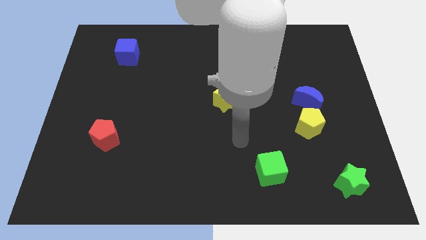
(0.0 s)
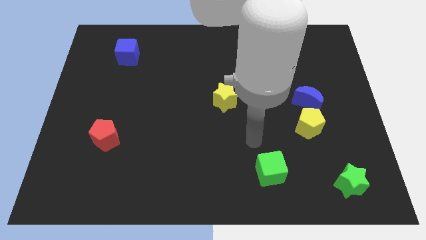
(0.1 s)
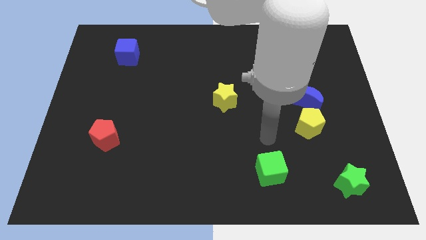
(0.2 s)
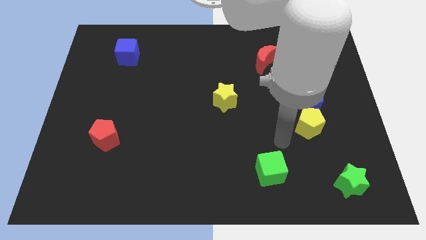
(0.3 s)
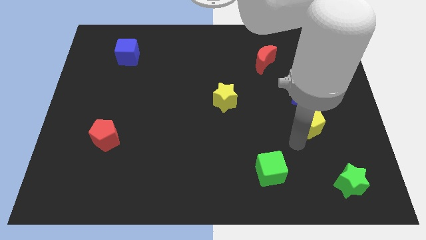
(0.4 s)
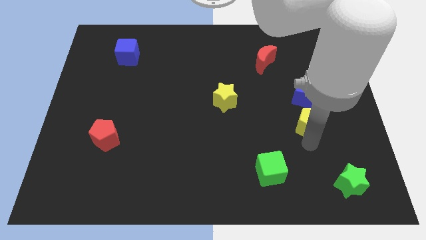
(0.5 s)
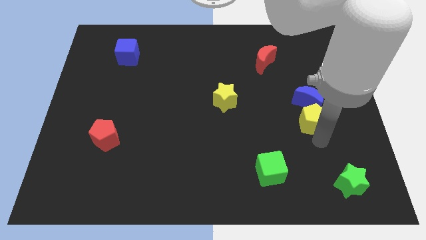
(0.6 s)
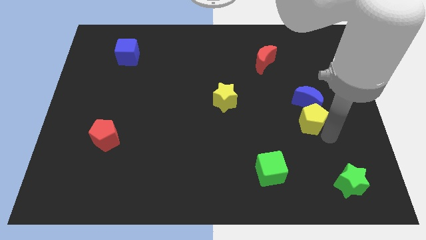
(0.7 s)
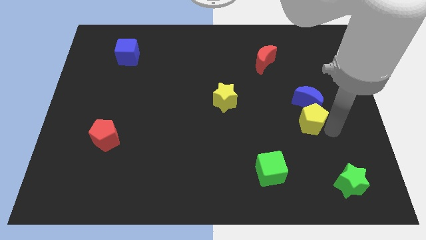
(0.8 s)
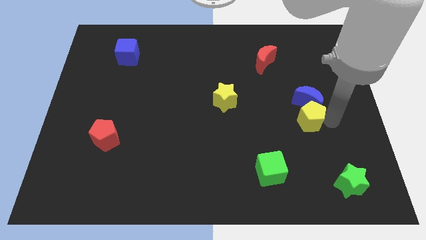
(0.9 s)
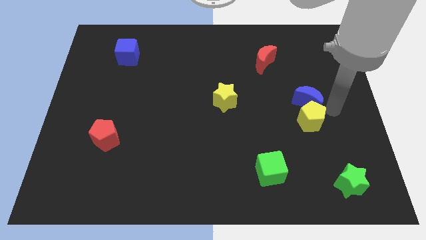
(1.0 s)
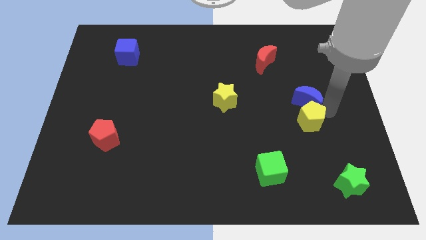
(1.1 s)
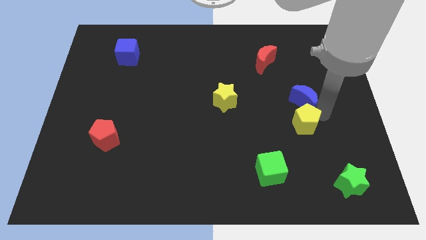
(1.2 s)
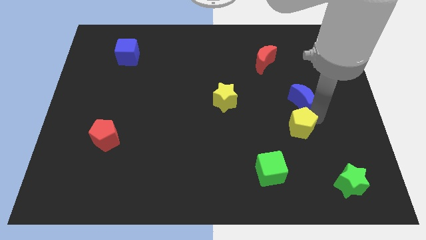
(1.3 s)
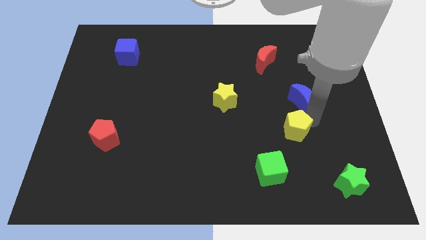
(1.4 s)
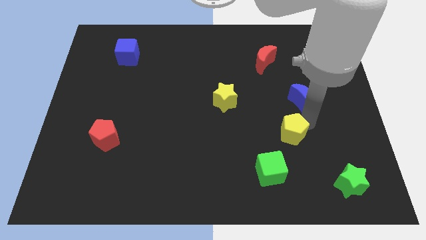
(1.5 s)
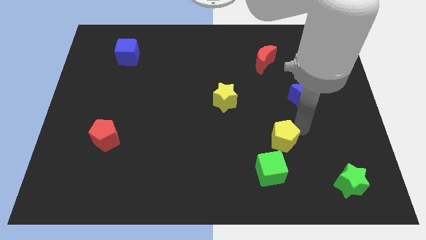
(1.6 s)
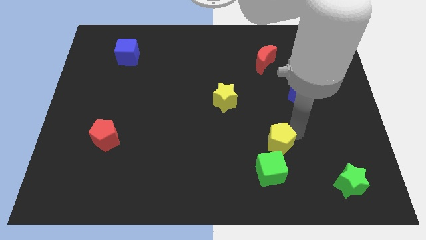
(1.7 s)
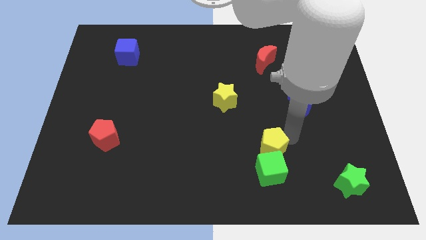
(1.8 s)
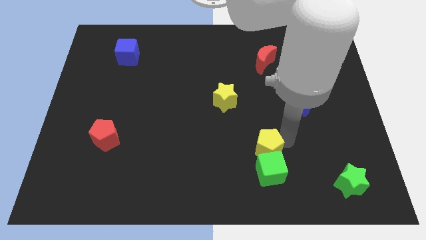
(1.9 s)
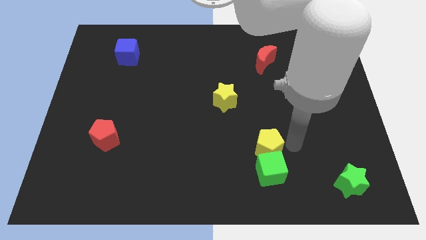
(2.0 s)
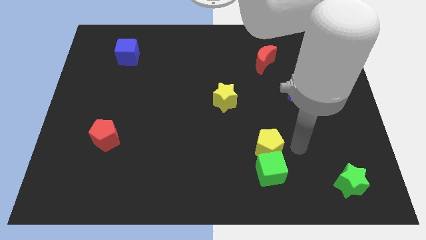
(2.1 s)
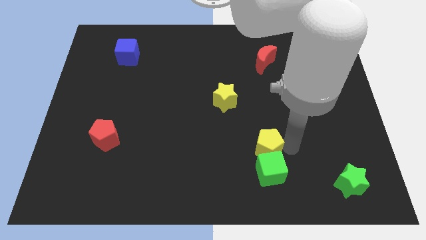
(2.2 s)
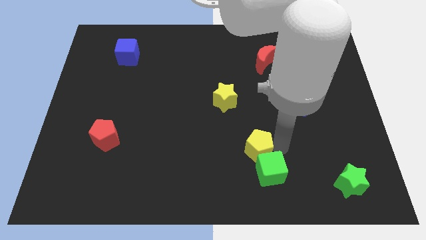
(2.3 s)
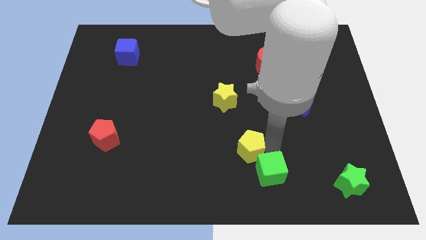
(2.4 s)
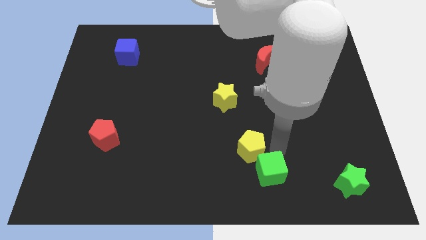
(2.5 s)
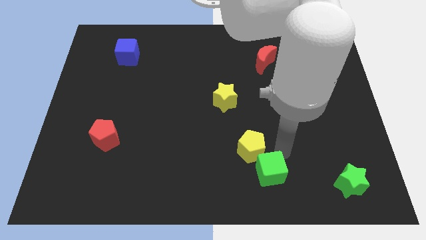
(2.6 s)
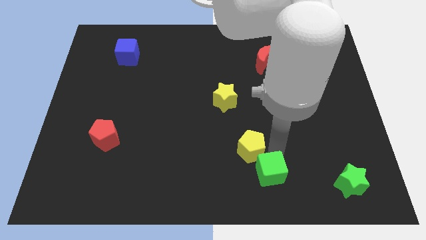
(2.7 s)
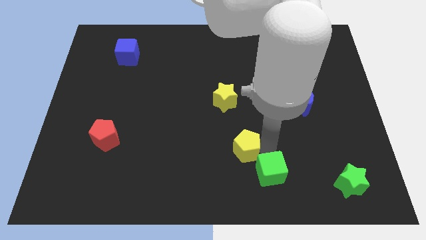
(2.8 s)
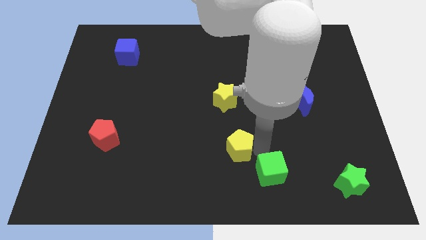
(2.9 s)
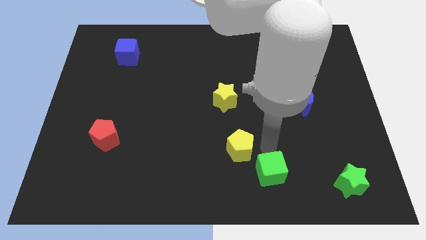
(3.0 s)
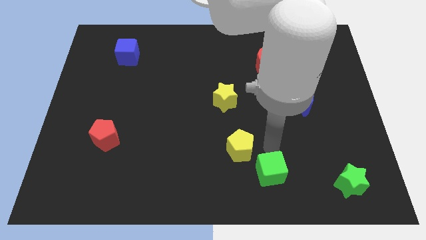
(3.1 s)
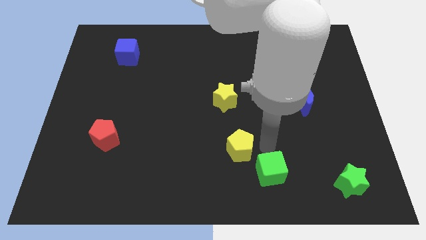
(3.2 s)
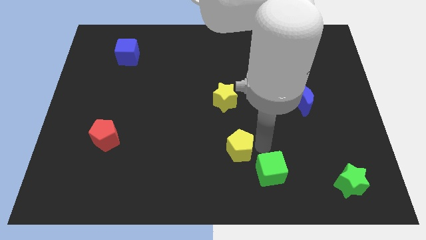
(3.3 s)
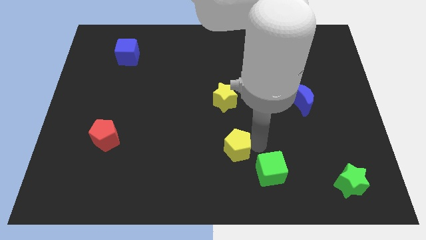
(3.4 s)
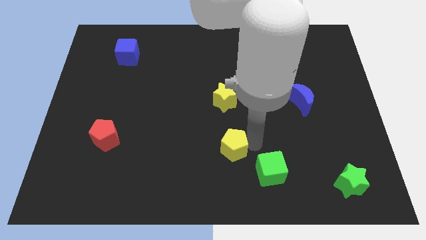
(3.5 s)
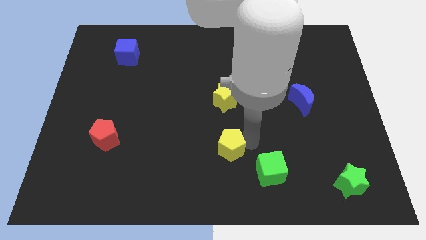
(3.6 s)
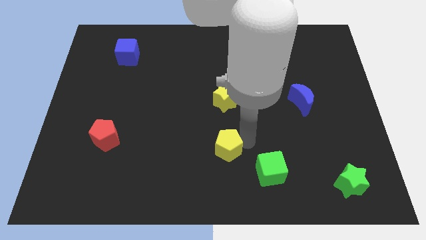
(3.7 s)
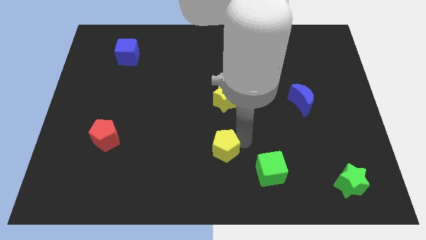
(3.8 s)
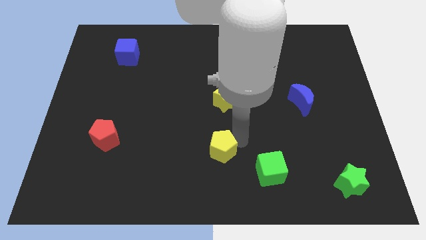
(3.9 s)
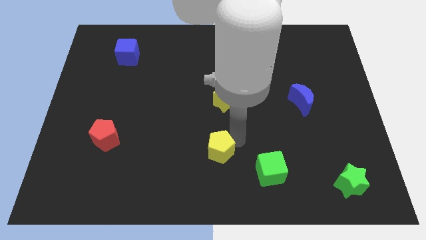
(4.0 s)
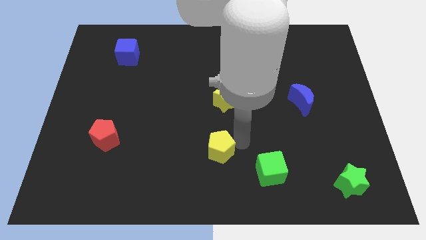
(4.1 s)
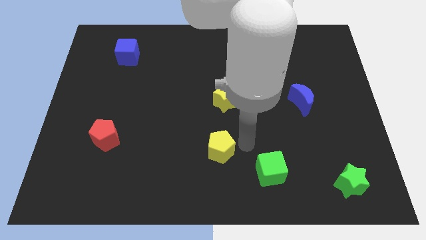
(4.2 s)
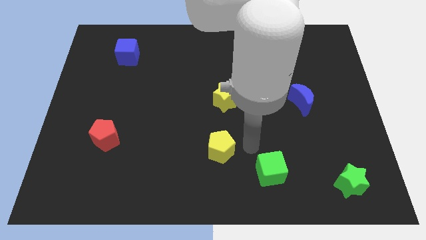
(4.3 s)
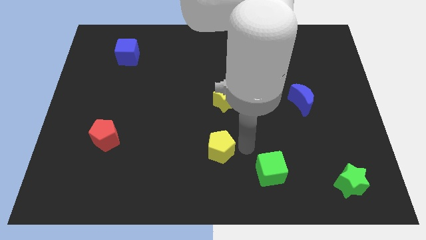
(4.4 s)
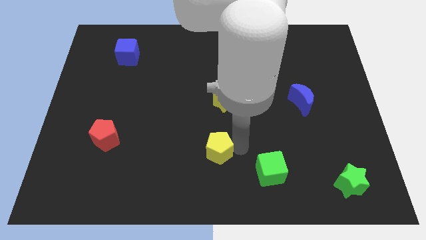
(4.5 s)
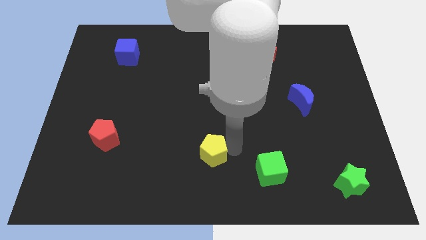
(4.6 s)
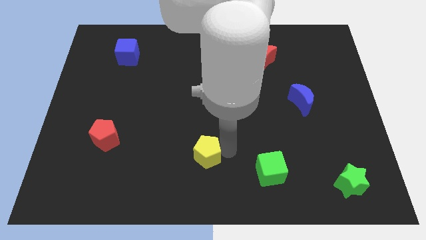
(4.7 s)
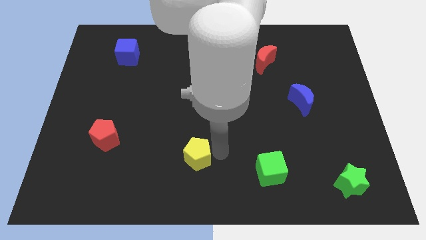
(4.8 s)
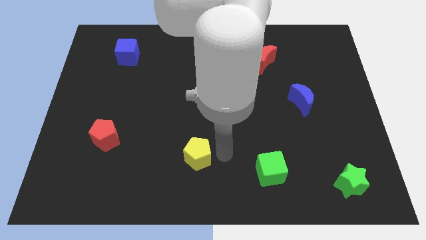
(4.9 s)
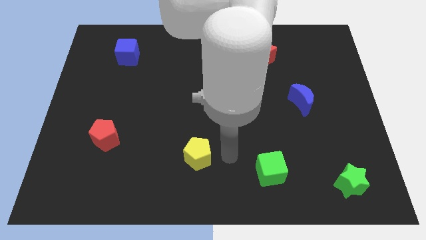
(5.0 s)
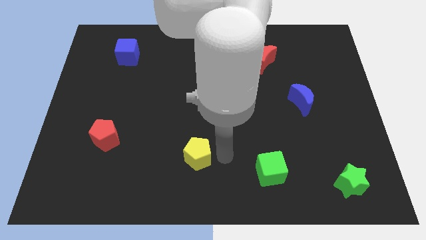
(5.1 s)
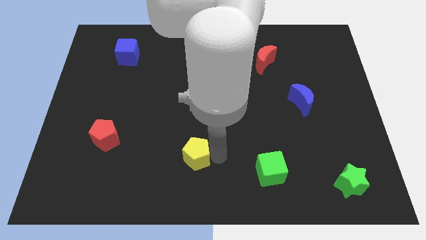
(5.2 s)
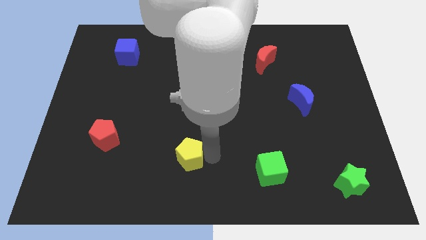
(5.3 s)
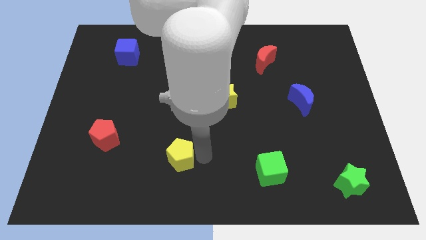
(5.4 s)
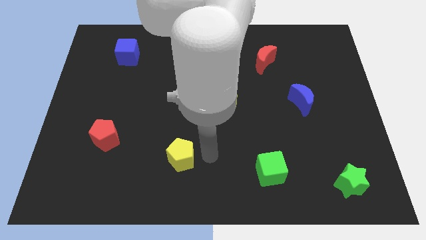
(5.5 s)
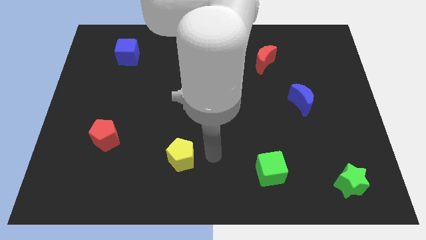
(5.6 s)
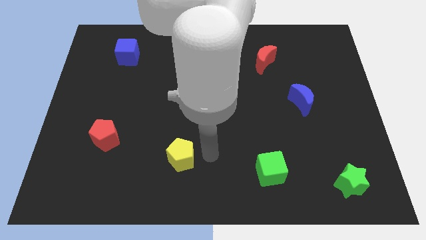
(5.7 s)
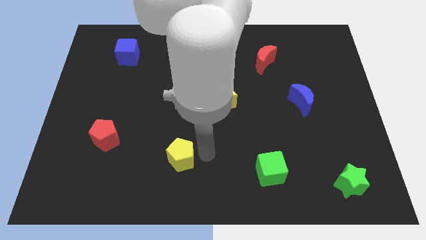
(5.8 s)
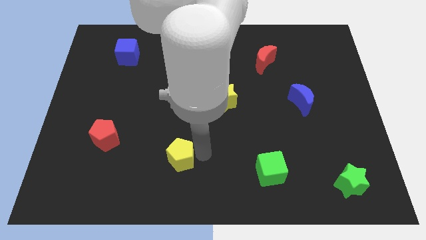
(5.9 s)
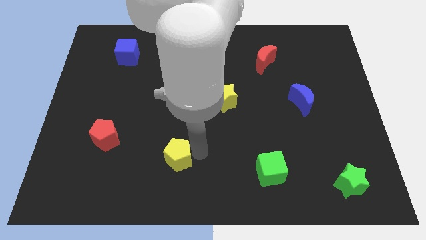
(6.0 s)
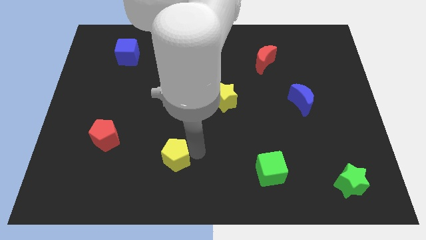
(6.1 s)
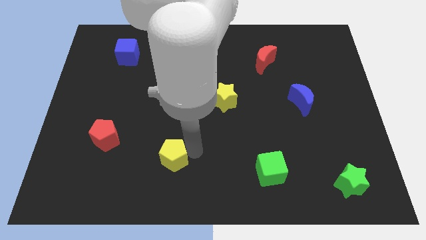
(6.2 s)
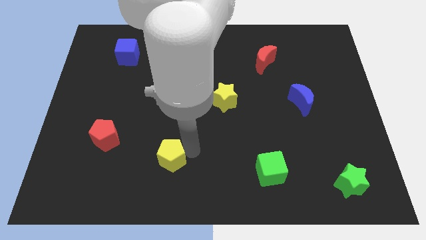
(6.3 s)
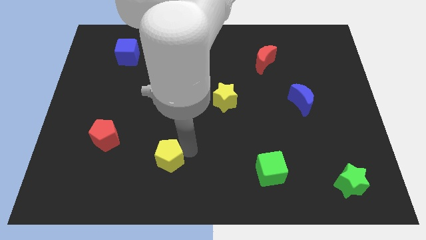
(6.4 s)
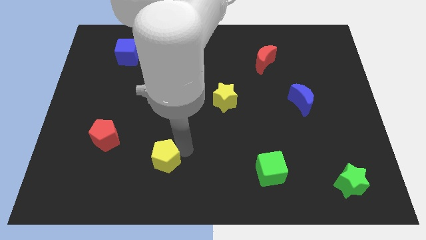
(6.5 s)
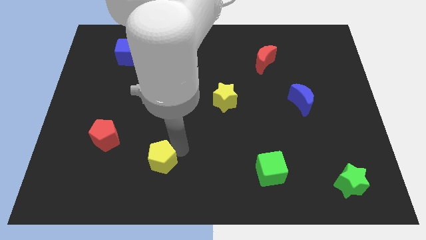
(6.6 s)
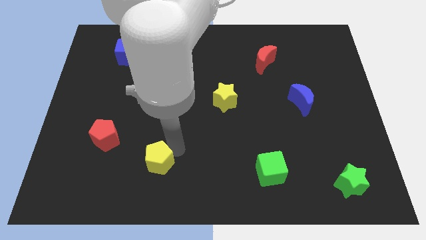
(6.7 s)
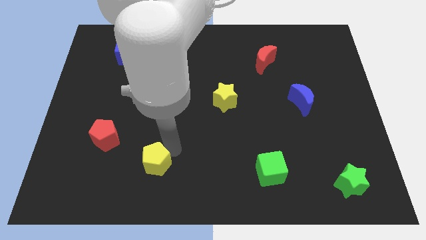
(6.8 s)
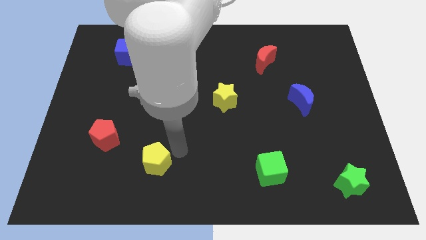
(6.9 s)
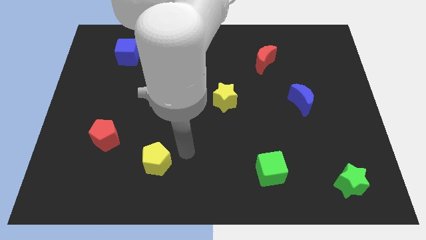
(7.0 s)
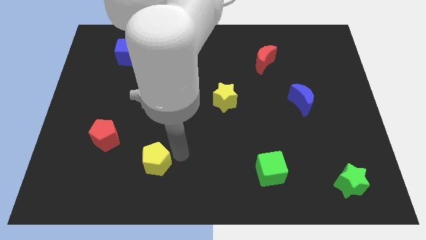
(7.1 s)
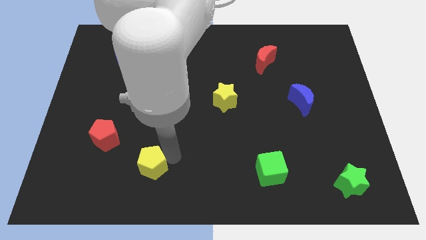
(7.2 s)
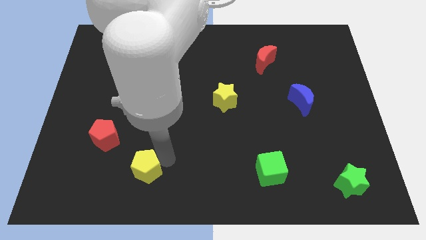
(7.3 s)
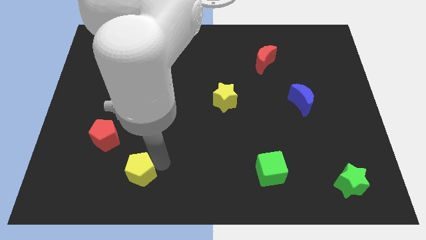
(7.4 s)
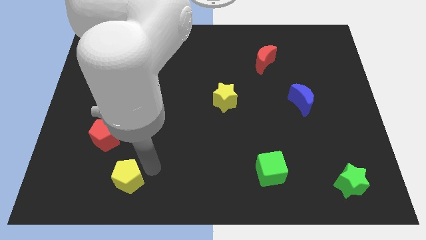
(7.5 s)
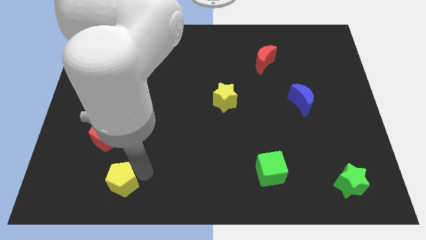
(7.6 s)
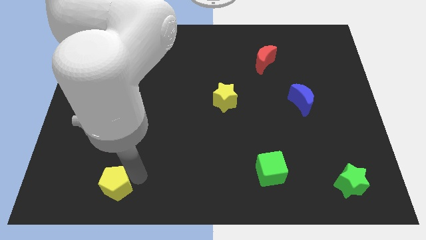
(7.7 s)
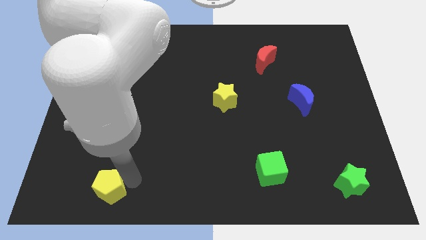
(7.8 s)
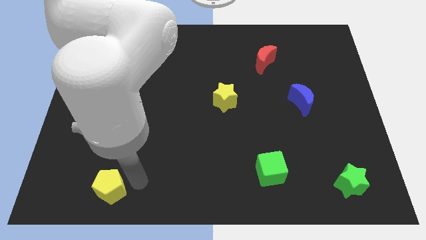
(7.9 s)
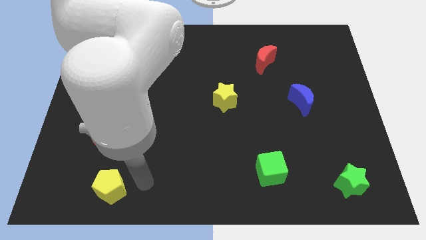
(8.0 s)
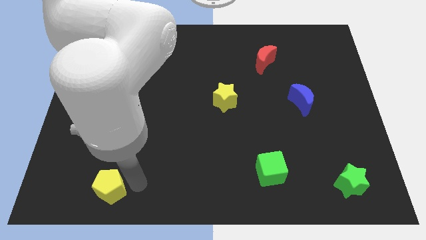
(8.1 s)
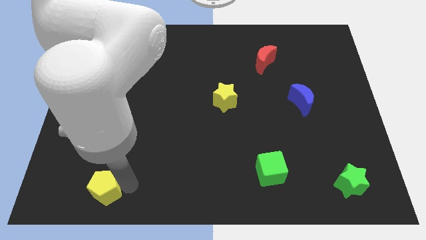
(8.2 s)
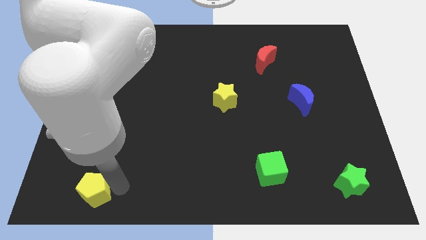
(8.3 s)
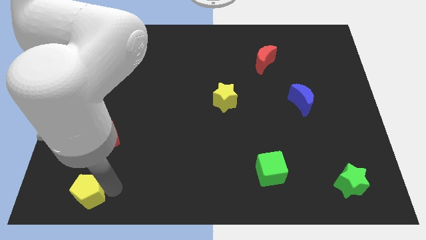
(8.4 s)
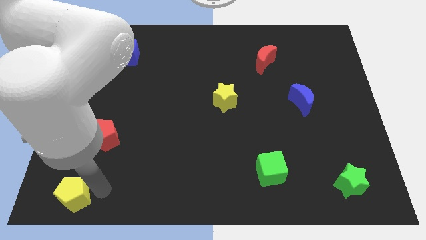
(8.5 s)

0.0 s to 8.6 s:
push the yellow pentagon to the bottom left of the board
